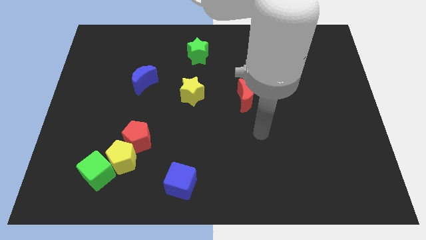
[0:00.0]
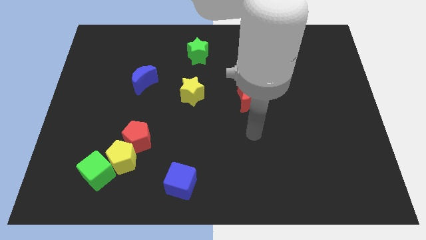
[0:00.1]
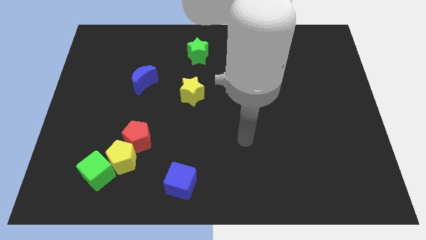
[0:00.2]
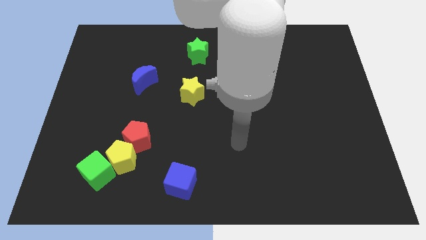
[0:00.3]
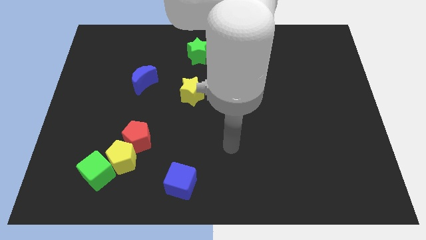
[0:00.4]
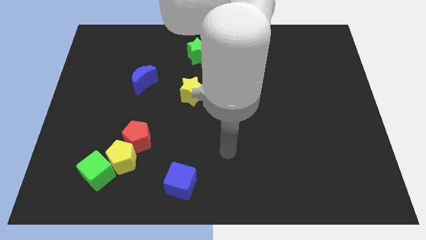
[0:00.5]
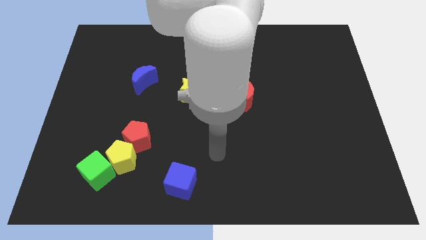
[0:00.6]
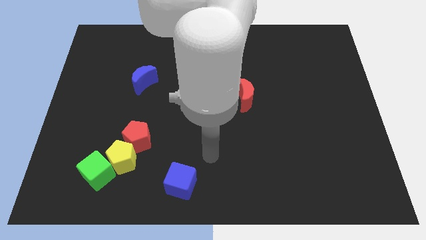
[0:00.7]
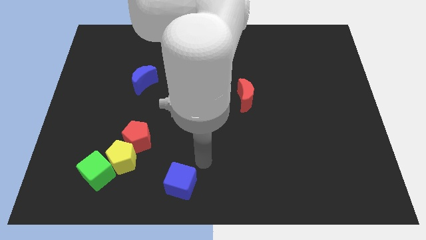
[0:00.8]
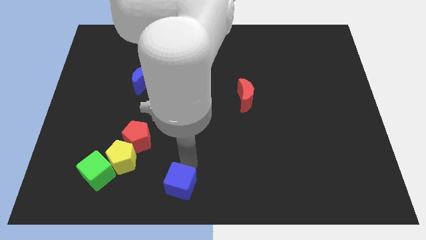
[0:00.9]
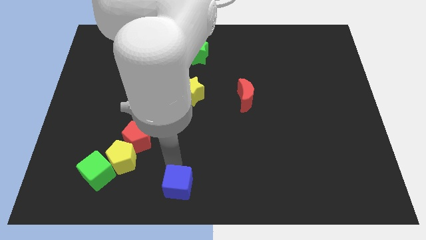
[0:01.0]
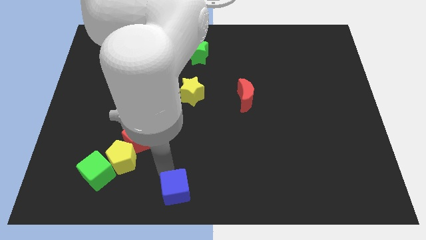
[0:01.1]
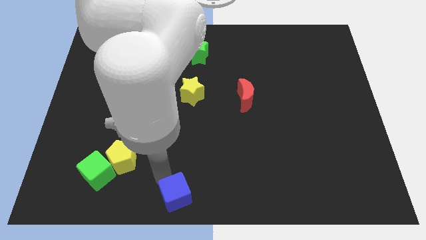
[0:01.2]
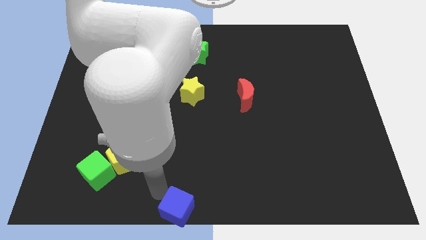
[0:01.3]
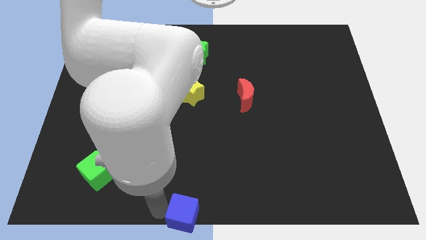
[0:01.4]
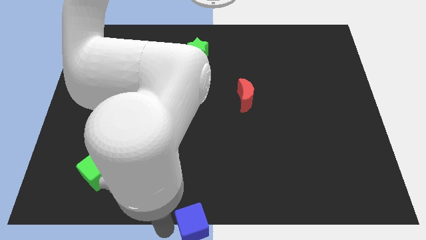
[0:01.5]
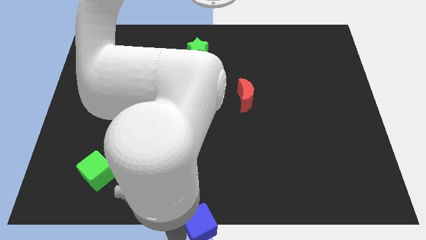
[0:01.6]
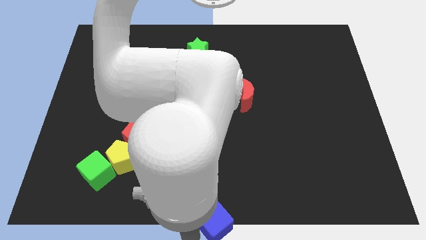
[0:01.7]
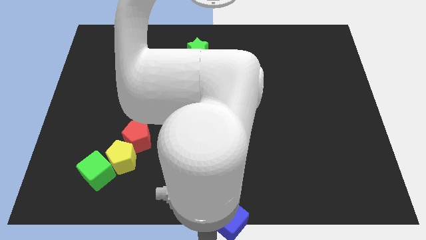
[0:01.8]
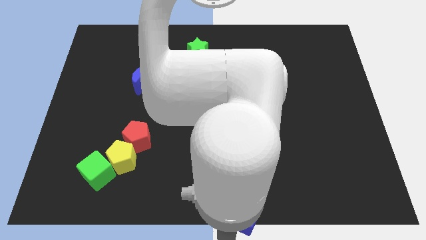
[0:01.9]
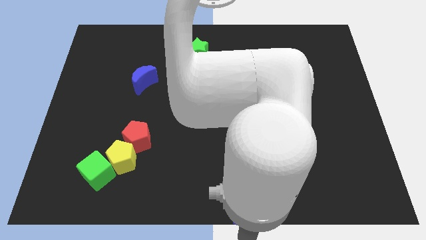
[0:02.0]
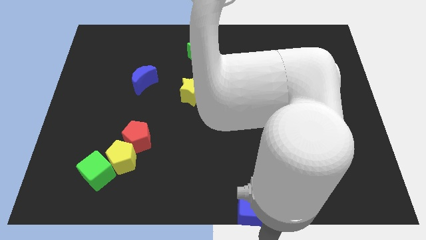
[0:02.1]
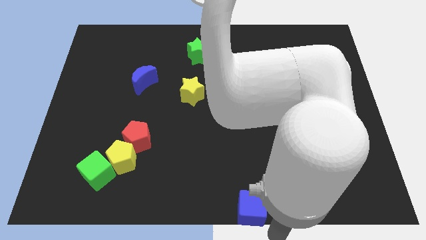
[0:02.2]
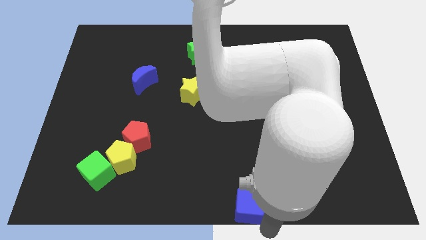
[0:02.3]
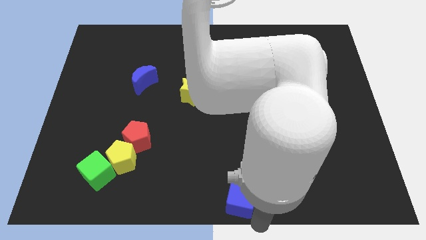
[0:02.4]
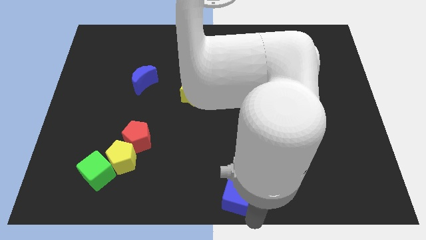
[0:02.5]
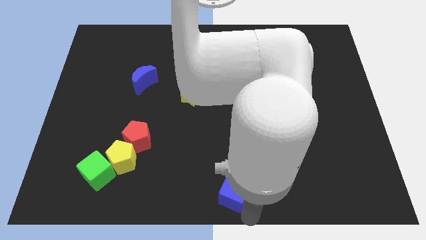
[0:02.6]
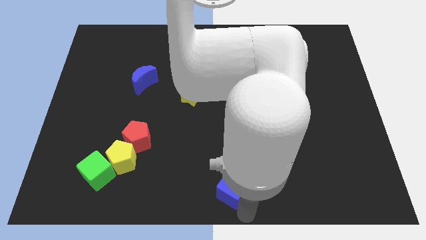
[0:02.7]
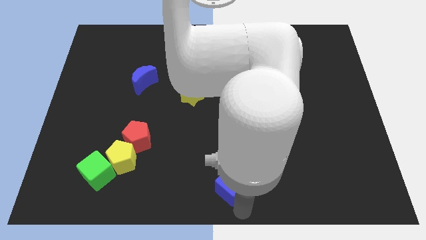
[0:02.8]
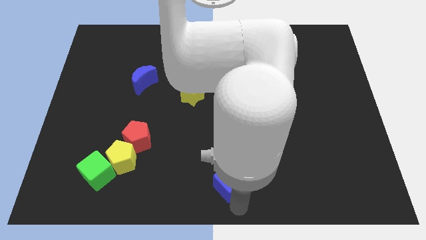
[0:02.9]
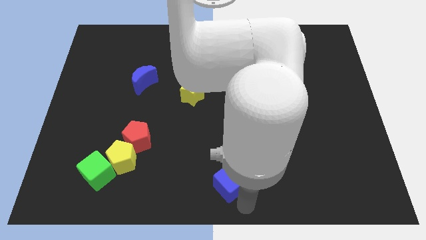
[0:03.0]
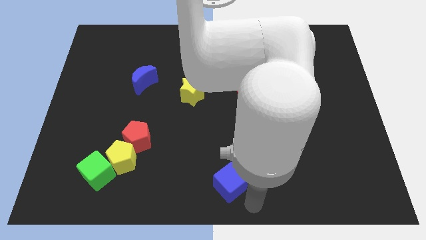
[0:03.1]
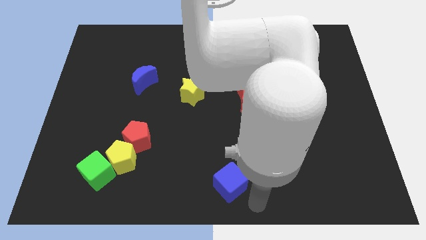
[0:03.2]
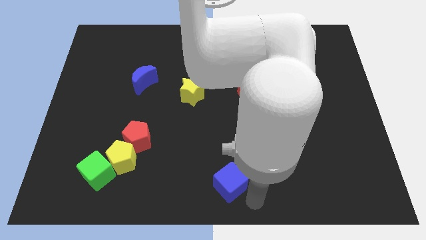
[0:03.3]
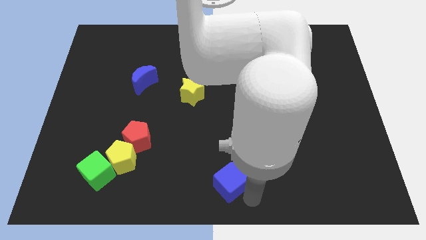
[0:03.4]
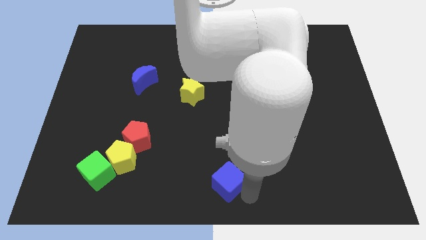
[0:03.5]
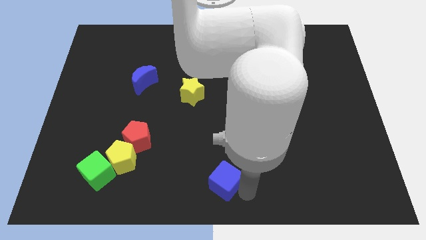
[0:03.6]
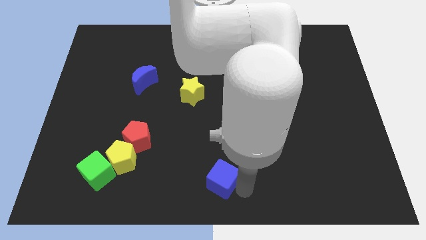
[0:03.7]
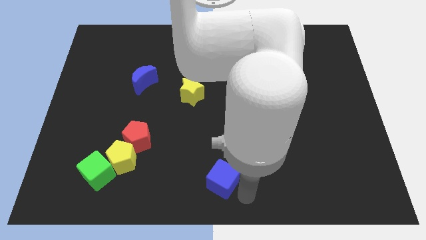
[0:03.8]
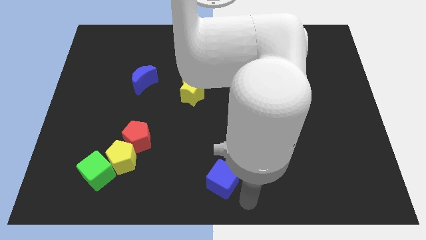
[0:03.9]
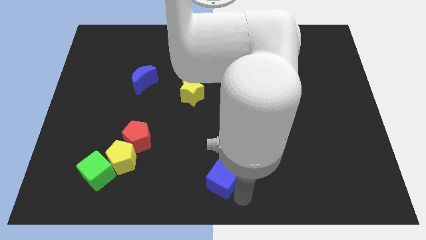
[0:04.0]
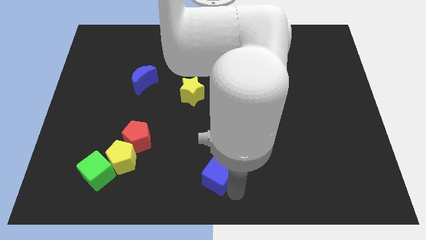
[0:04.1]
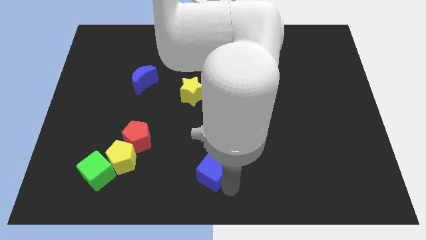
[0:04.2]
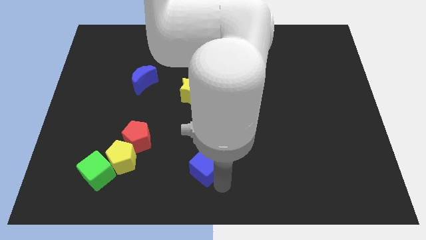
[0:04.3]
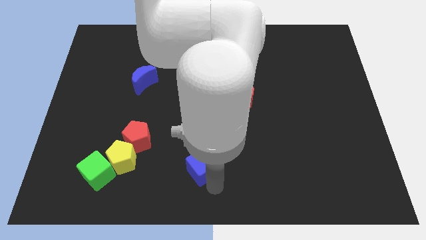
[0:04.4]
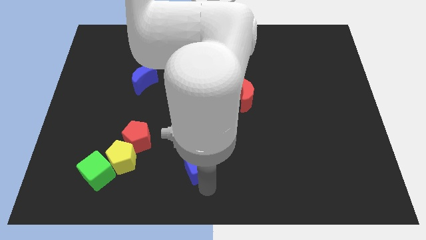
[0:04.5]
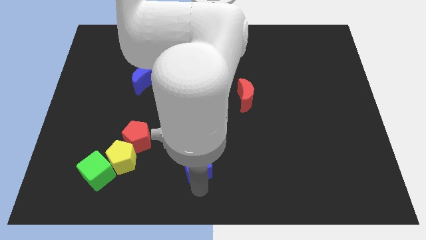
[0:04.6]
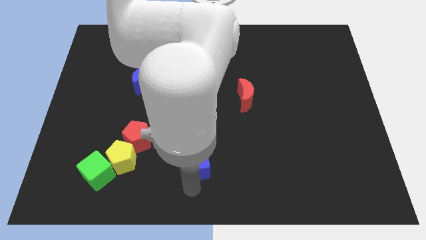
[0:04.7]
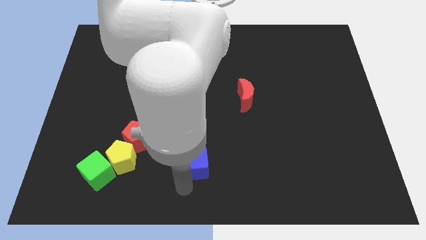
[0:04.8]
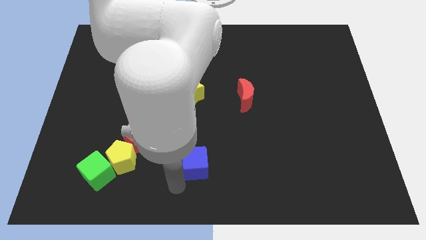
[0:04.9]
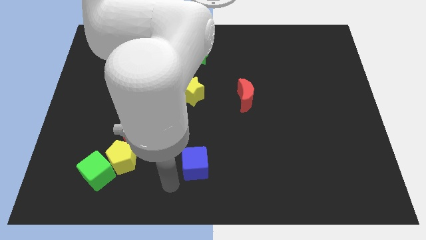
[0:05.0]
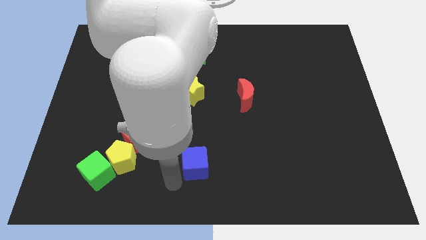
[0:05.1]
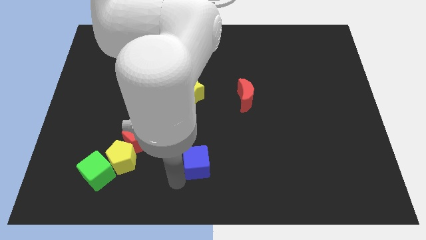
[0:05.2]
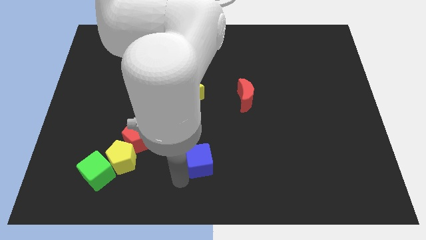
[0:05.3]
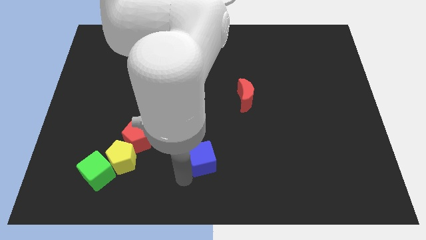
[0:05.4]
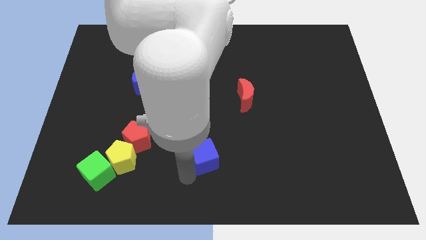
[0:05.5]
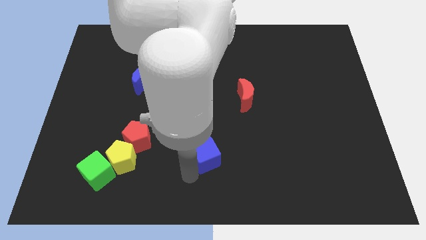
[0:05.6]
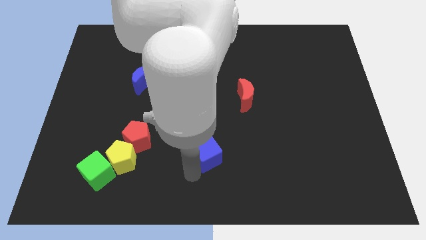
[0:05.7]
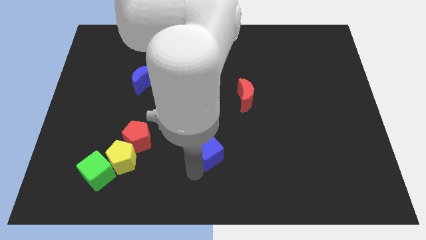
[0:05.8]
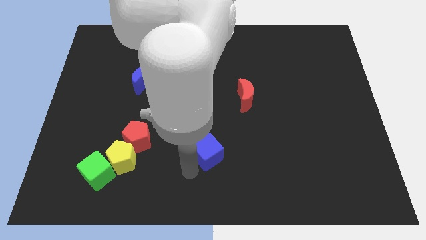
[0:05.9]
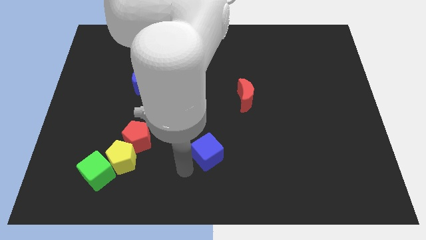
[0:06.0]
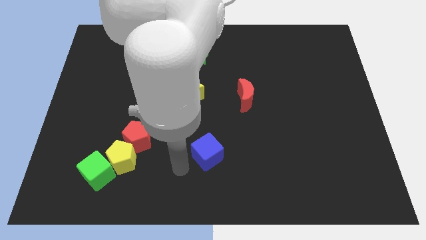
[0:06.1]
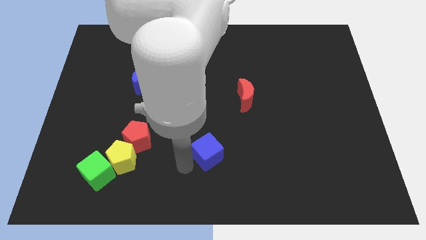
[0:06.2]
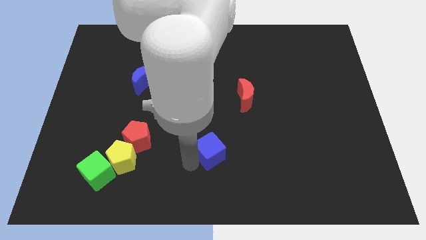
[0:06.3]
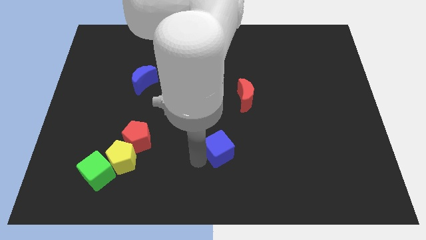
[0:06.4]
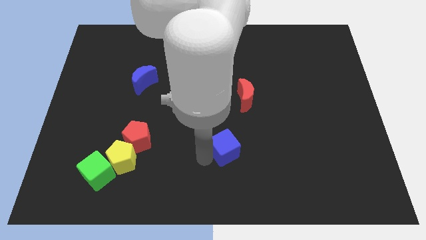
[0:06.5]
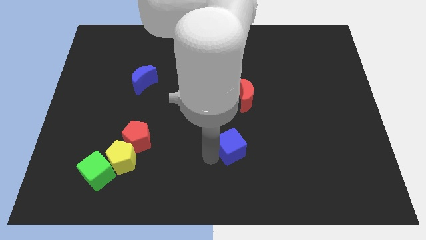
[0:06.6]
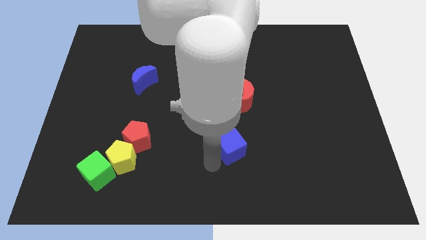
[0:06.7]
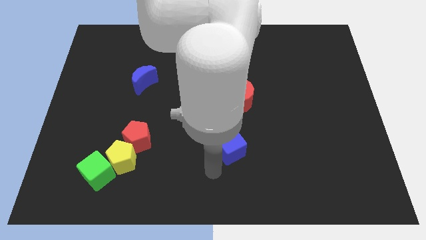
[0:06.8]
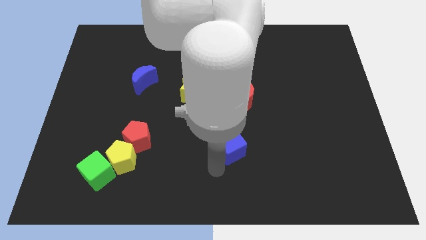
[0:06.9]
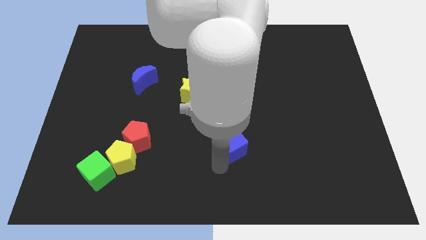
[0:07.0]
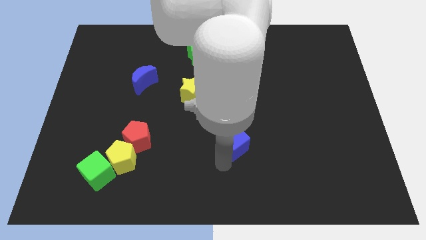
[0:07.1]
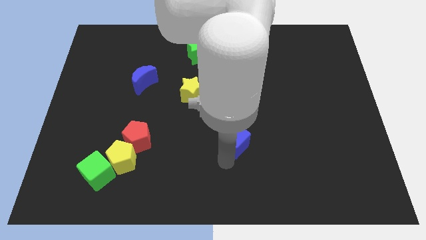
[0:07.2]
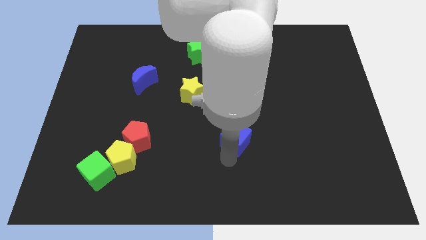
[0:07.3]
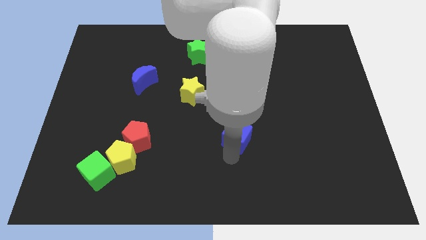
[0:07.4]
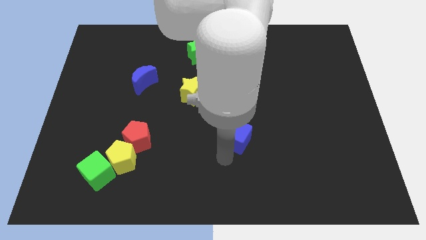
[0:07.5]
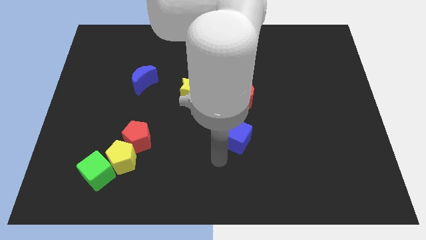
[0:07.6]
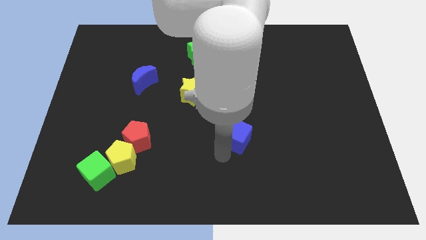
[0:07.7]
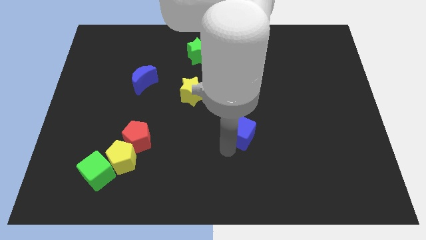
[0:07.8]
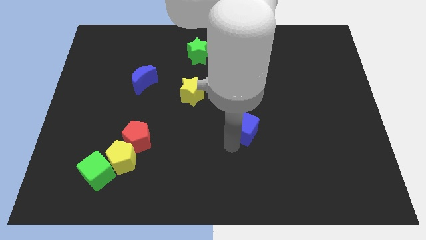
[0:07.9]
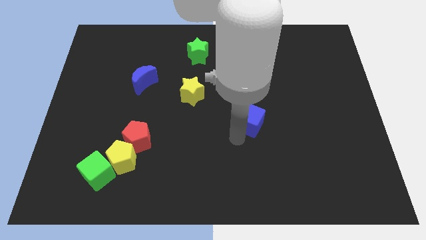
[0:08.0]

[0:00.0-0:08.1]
push the blue cube diagonally up and right

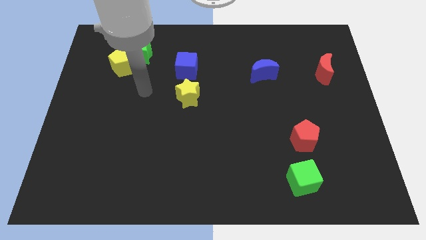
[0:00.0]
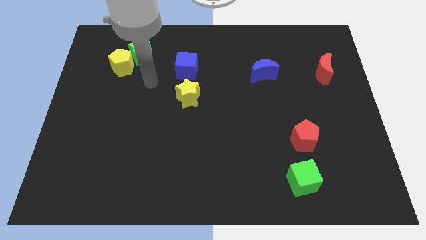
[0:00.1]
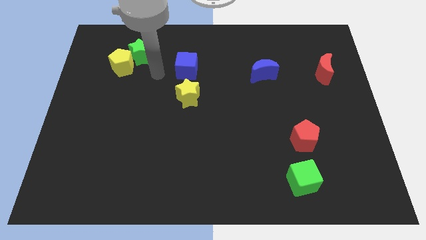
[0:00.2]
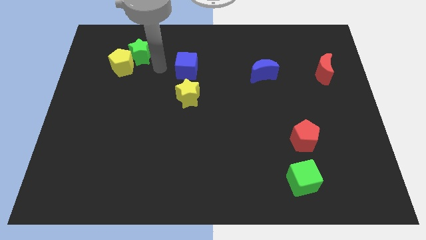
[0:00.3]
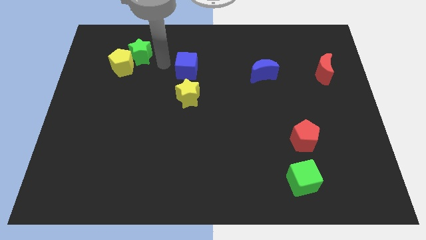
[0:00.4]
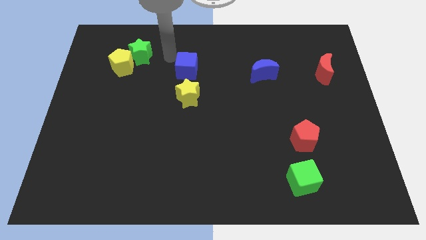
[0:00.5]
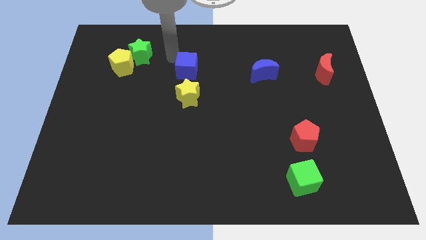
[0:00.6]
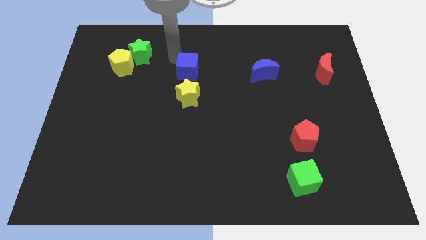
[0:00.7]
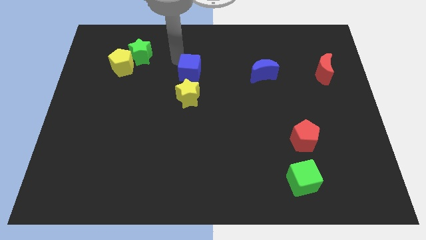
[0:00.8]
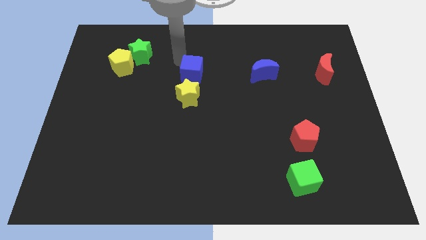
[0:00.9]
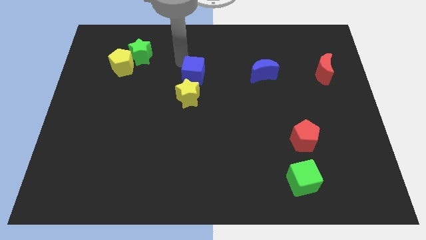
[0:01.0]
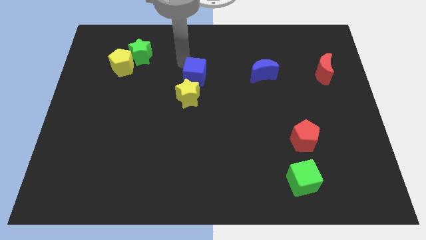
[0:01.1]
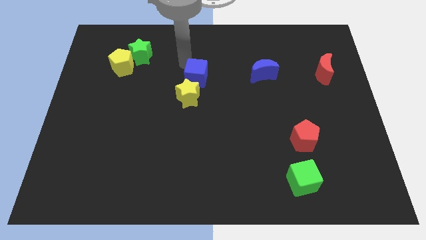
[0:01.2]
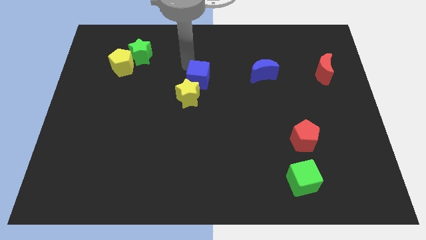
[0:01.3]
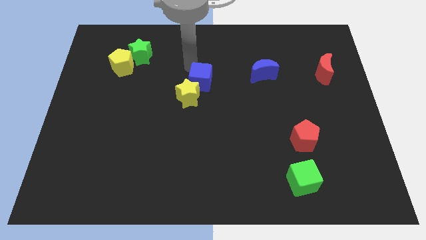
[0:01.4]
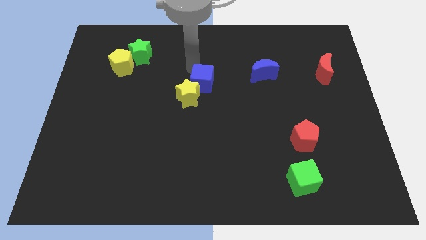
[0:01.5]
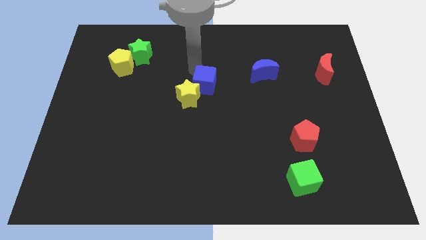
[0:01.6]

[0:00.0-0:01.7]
move the blue cube a bit downwards and right diagonally
